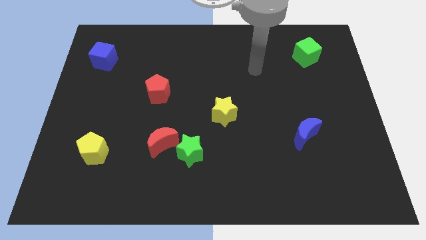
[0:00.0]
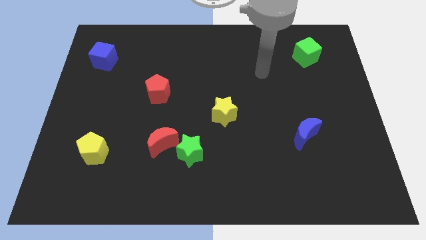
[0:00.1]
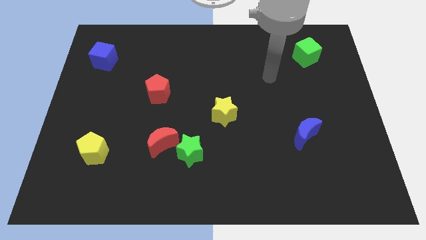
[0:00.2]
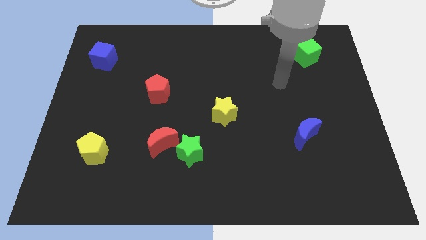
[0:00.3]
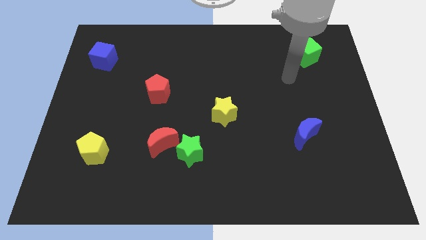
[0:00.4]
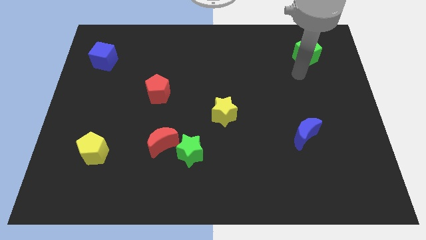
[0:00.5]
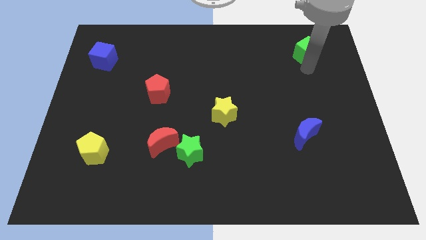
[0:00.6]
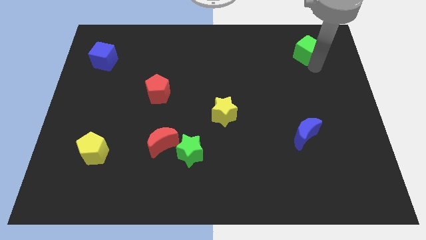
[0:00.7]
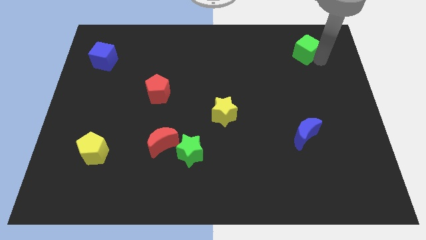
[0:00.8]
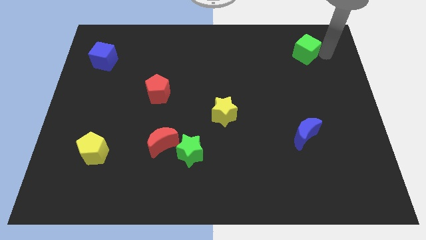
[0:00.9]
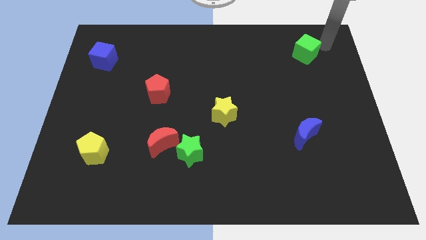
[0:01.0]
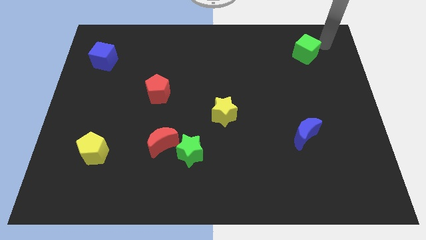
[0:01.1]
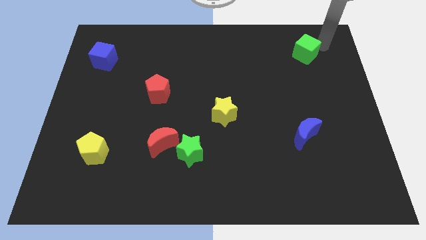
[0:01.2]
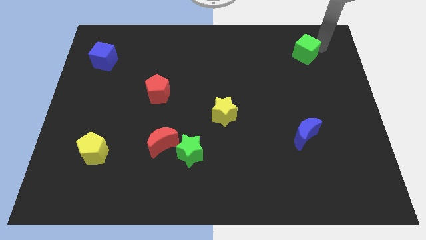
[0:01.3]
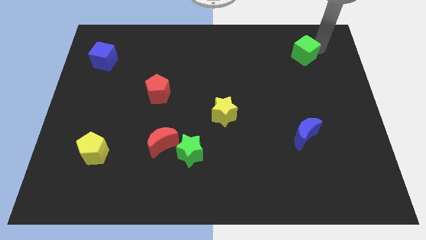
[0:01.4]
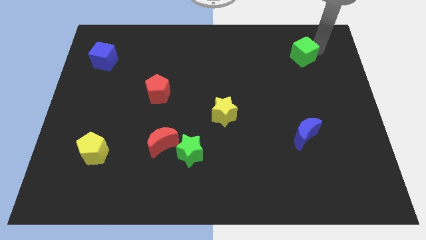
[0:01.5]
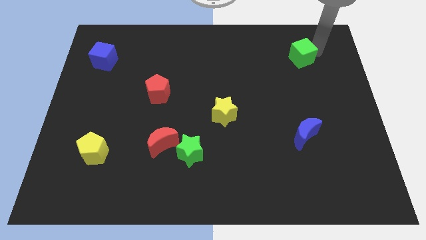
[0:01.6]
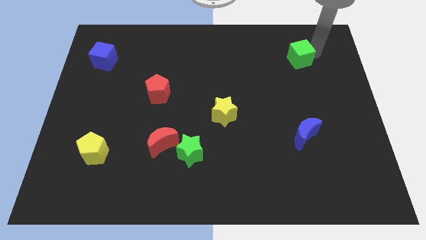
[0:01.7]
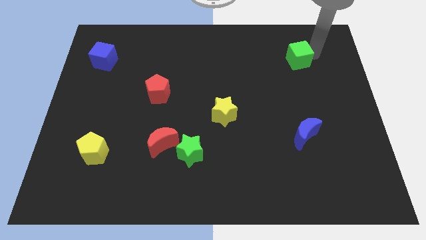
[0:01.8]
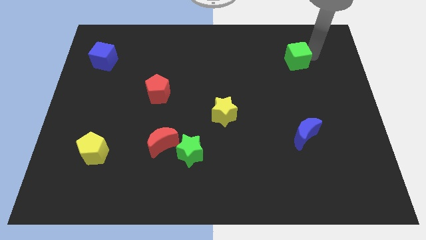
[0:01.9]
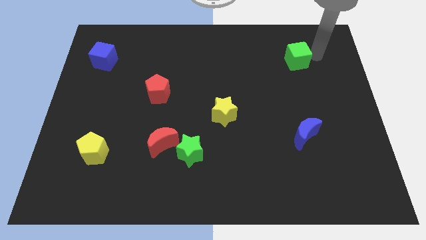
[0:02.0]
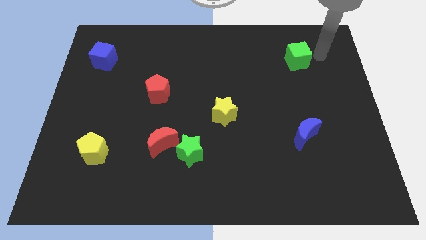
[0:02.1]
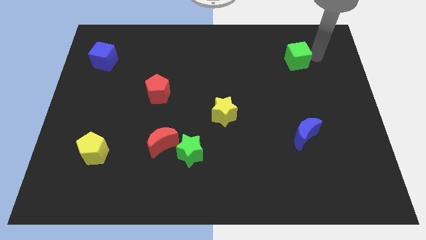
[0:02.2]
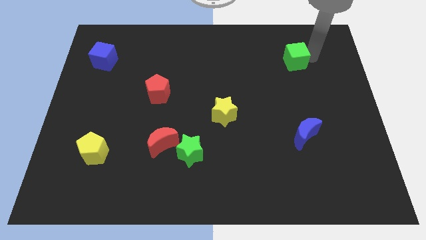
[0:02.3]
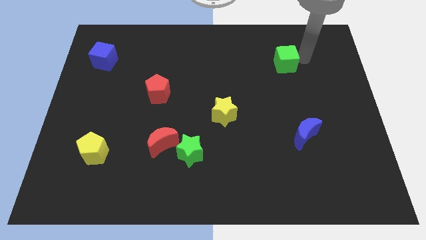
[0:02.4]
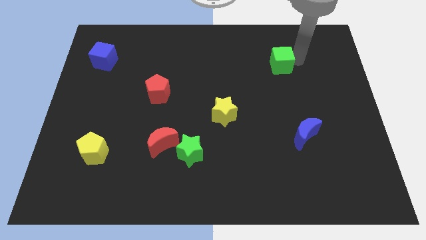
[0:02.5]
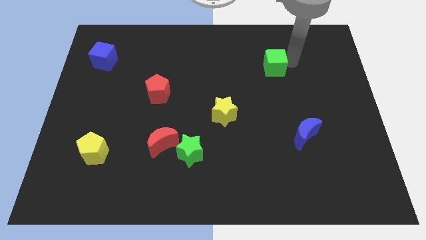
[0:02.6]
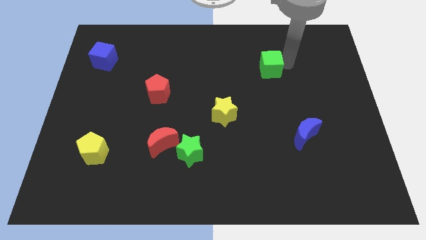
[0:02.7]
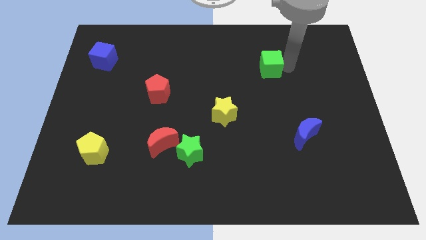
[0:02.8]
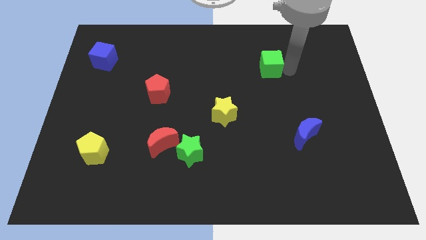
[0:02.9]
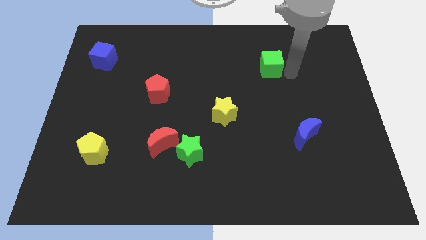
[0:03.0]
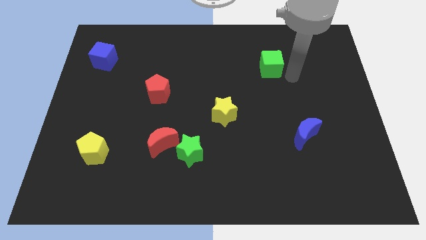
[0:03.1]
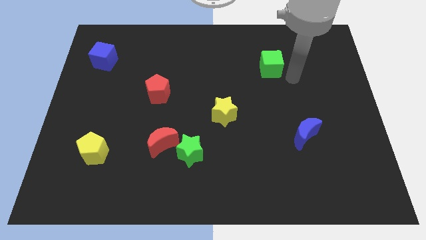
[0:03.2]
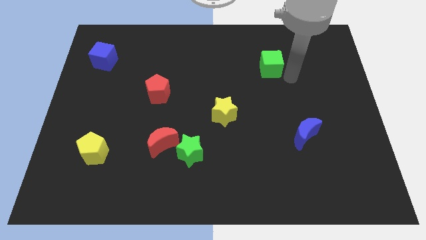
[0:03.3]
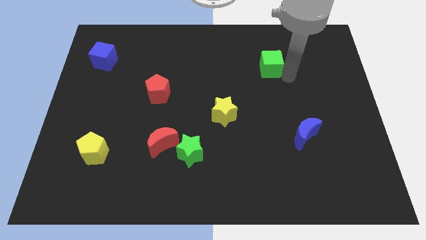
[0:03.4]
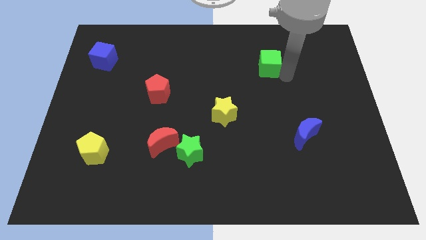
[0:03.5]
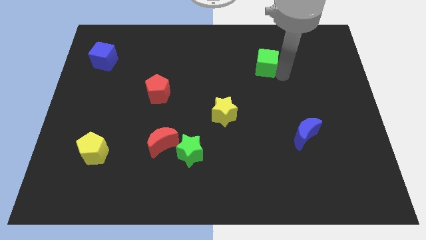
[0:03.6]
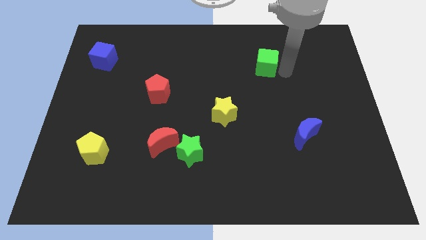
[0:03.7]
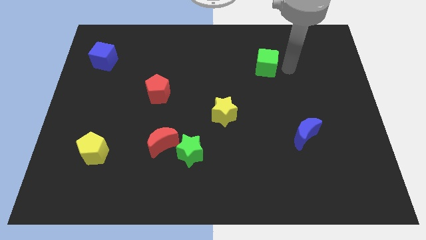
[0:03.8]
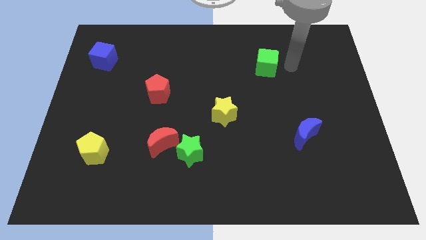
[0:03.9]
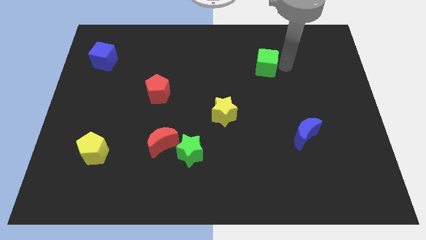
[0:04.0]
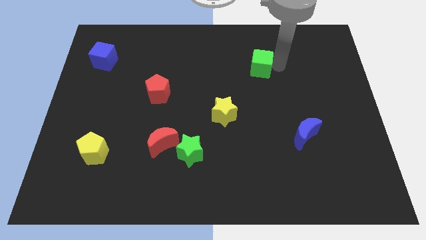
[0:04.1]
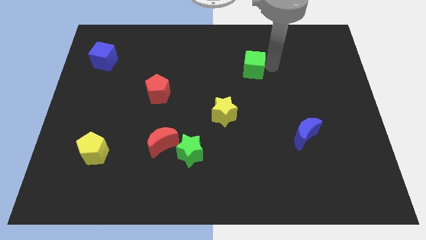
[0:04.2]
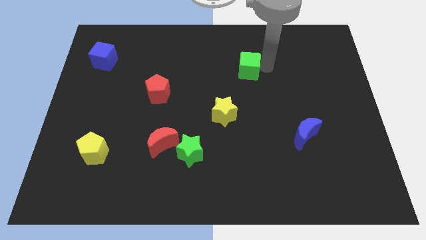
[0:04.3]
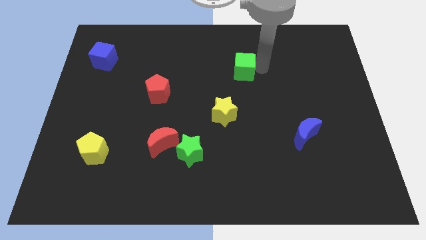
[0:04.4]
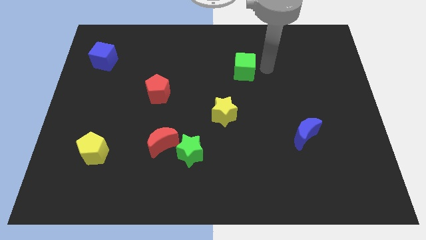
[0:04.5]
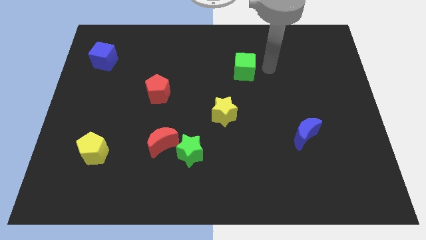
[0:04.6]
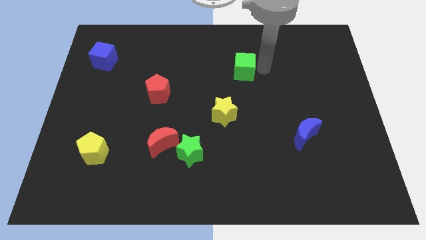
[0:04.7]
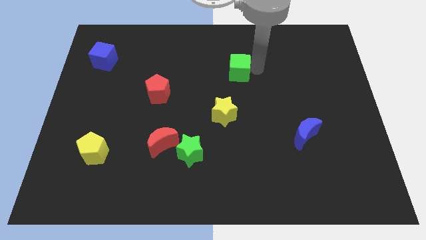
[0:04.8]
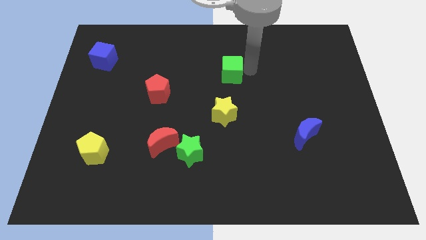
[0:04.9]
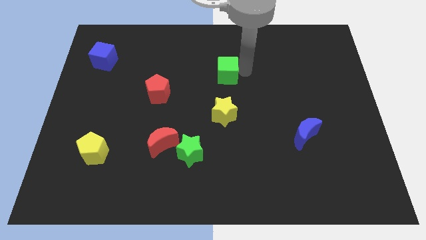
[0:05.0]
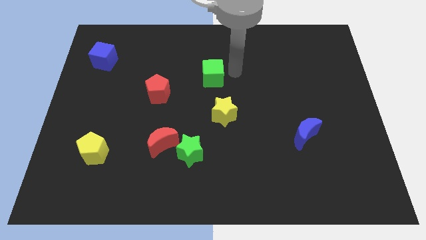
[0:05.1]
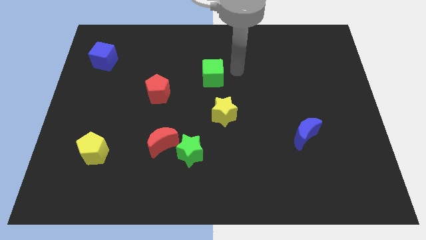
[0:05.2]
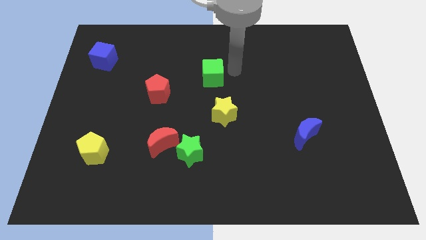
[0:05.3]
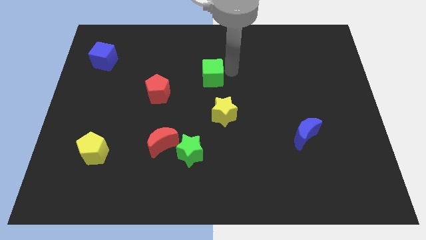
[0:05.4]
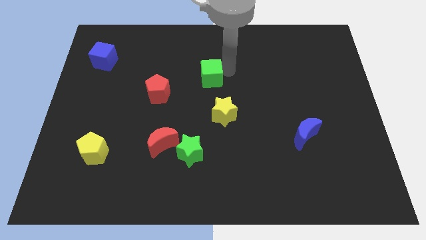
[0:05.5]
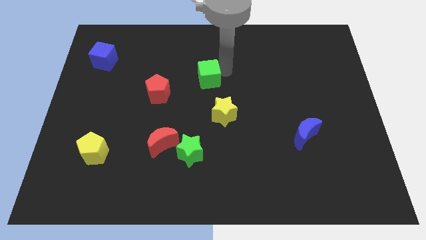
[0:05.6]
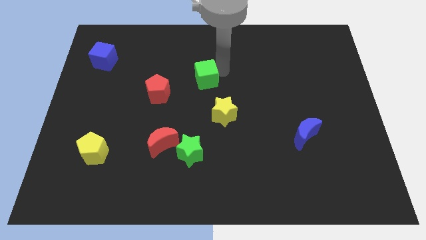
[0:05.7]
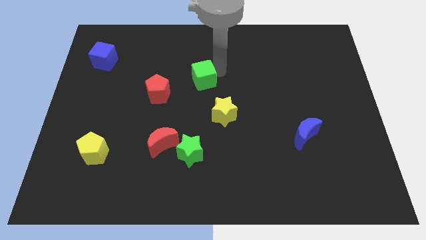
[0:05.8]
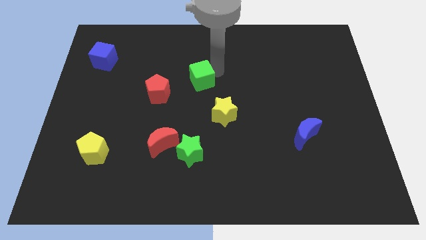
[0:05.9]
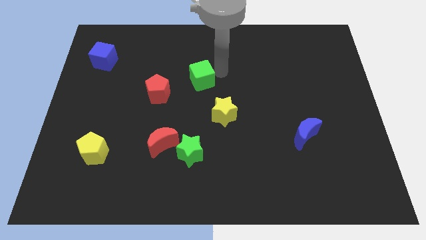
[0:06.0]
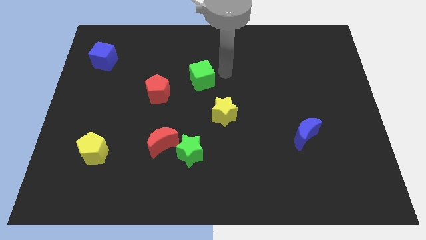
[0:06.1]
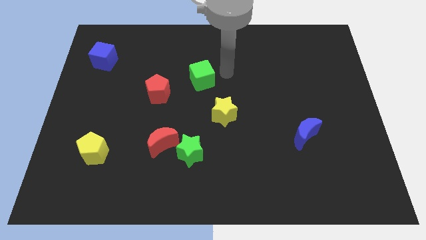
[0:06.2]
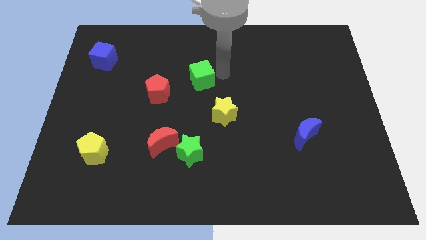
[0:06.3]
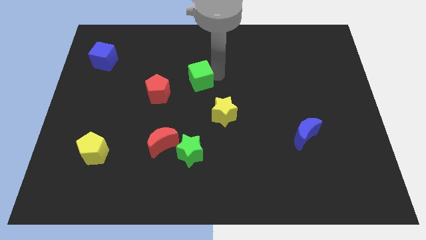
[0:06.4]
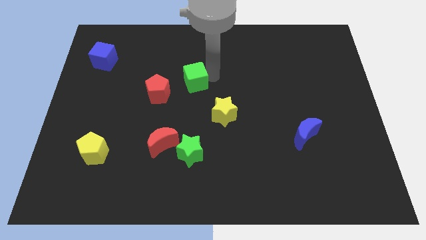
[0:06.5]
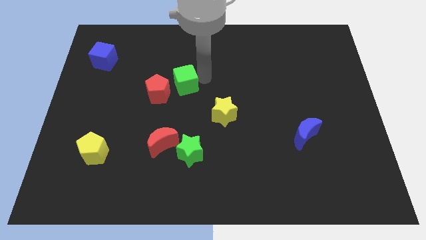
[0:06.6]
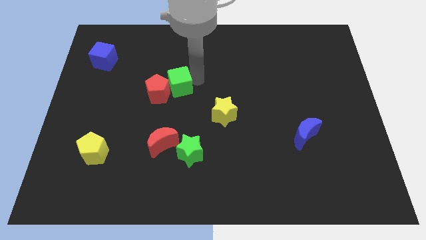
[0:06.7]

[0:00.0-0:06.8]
move the green cube towards the red pentagon
